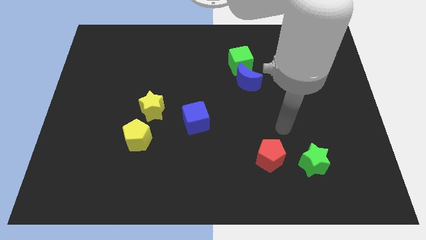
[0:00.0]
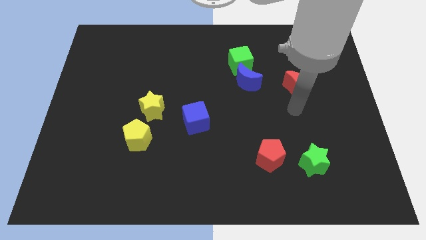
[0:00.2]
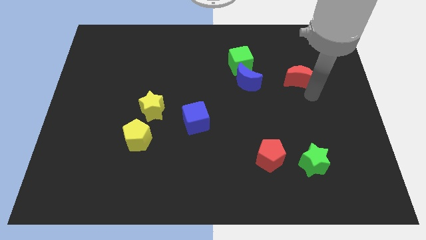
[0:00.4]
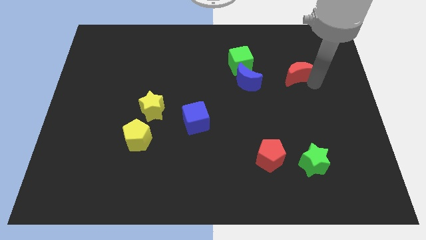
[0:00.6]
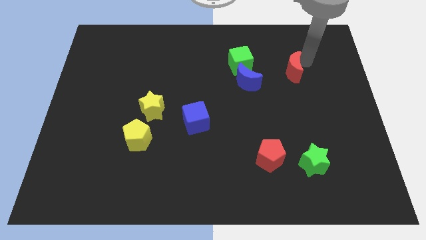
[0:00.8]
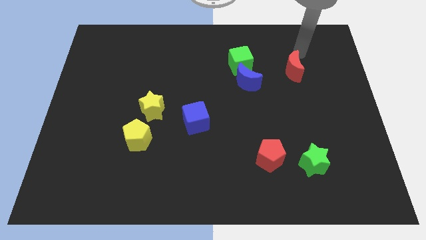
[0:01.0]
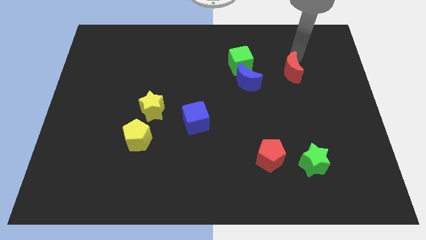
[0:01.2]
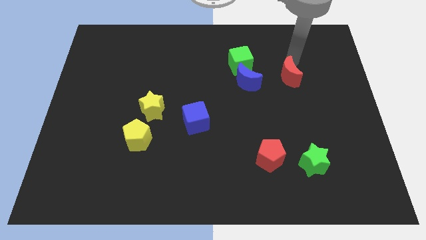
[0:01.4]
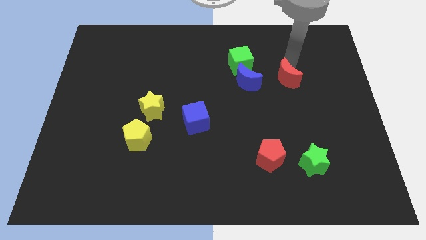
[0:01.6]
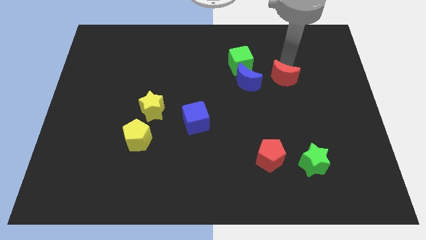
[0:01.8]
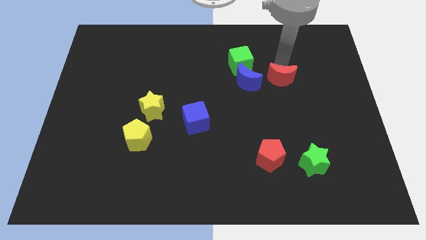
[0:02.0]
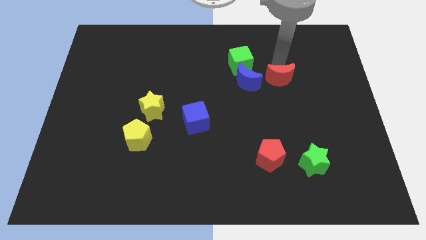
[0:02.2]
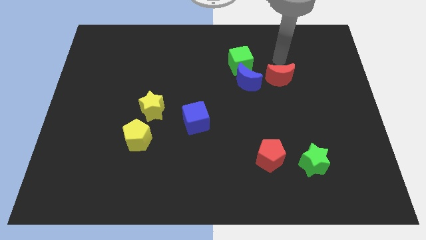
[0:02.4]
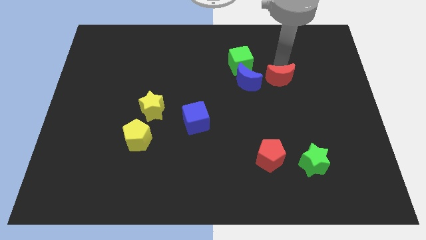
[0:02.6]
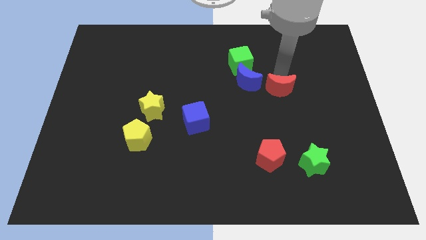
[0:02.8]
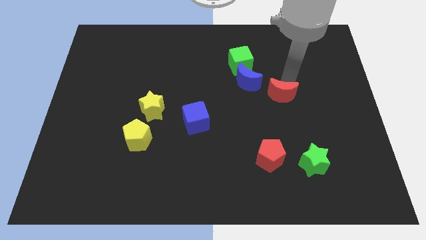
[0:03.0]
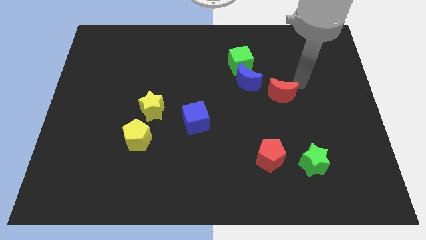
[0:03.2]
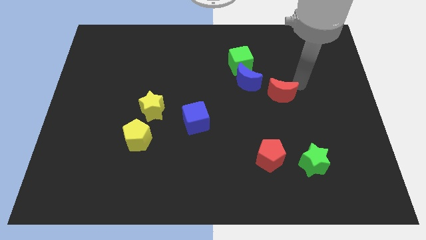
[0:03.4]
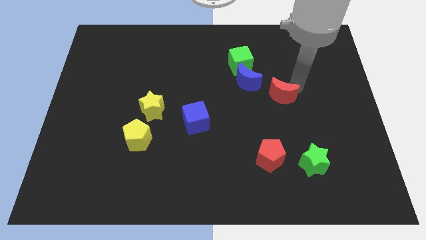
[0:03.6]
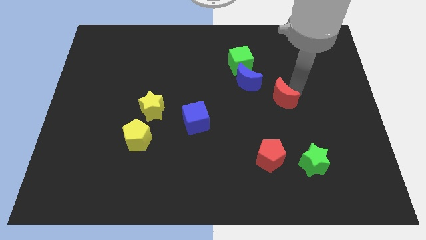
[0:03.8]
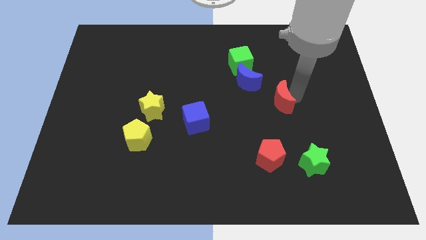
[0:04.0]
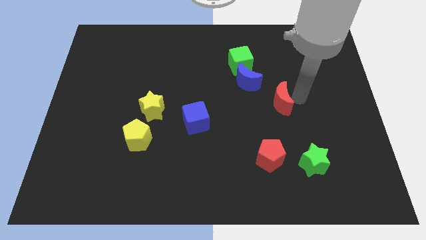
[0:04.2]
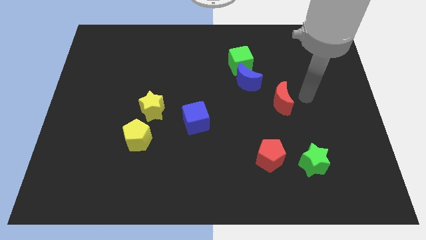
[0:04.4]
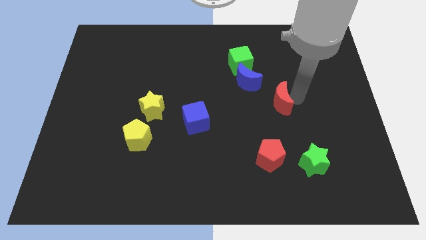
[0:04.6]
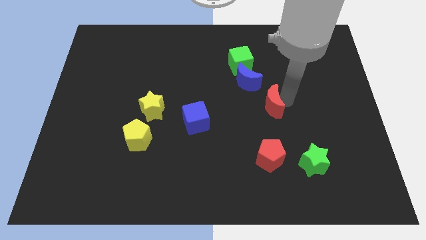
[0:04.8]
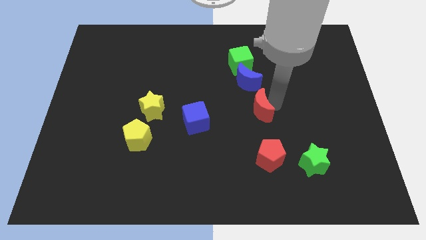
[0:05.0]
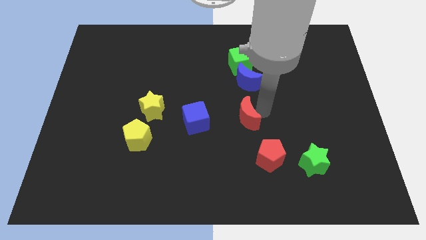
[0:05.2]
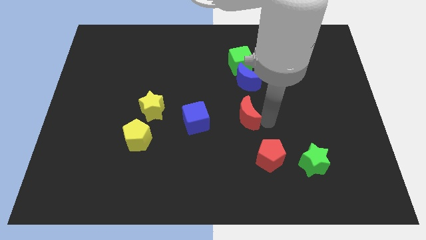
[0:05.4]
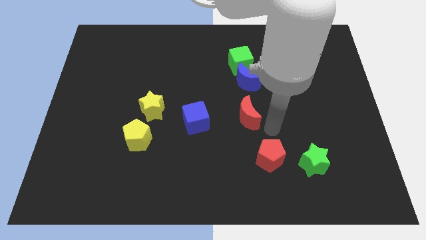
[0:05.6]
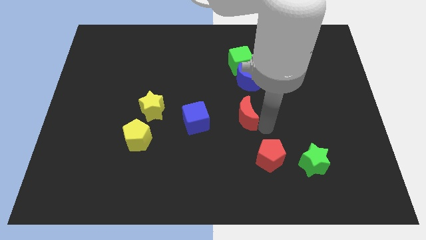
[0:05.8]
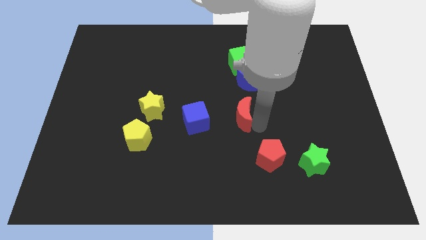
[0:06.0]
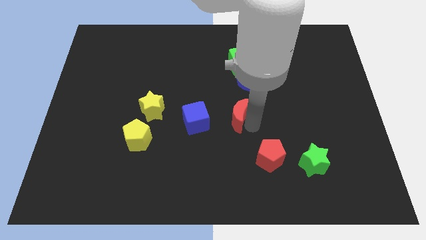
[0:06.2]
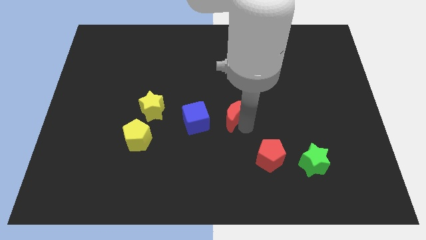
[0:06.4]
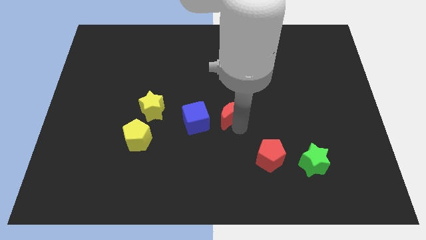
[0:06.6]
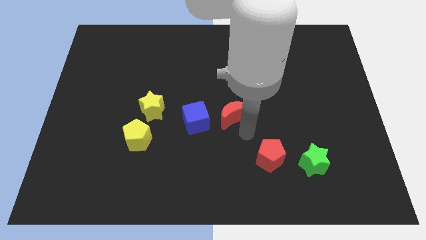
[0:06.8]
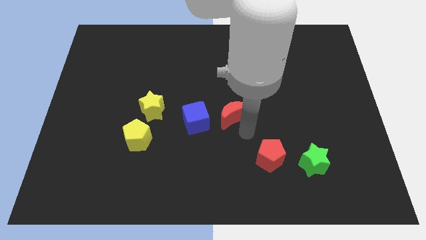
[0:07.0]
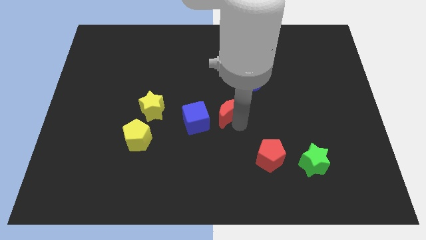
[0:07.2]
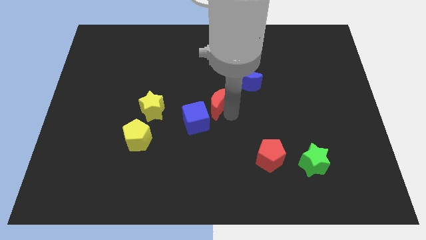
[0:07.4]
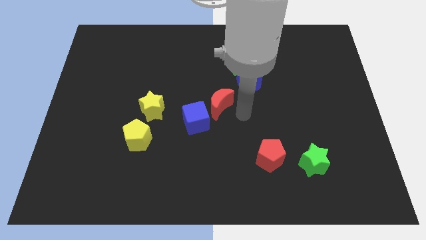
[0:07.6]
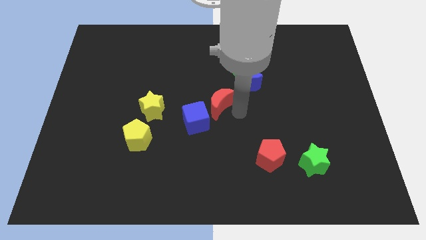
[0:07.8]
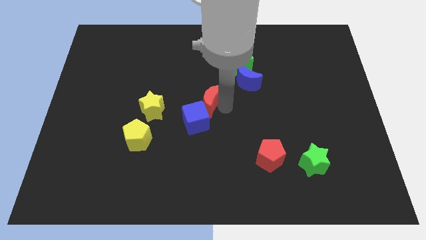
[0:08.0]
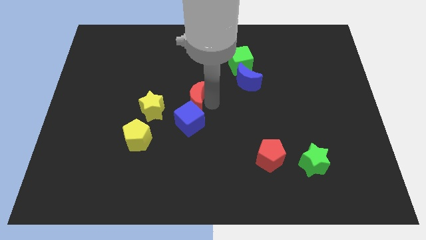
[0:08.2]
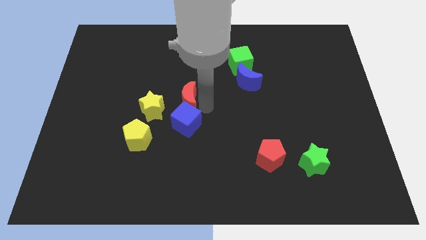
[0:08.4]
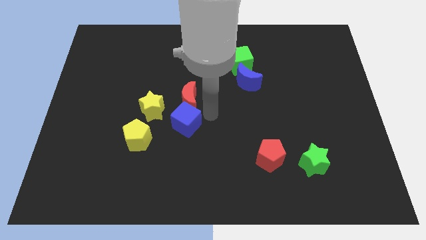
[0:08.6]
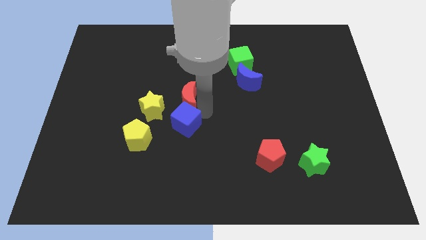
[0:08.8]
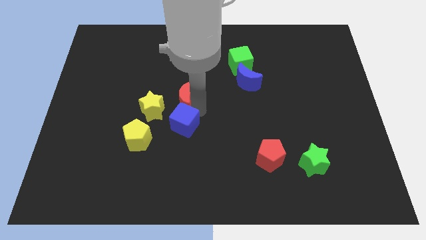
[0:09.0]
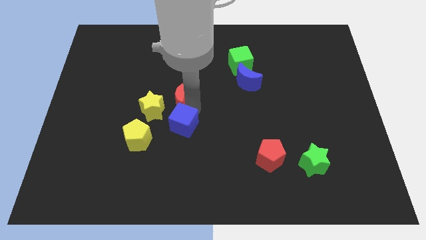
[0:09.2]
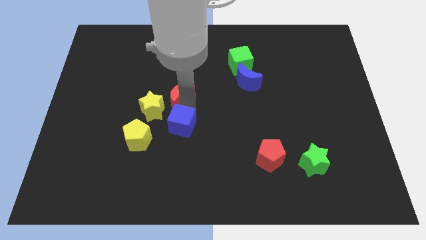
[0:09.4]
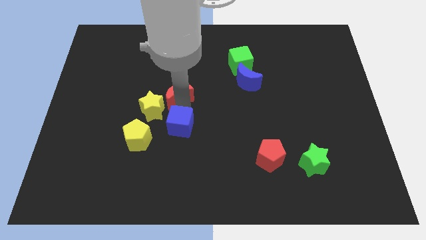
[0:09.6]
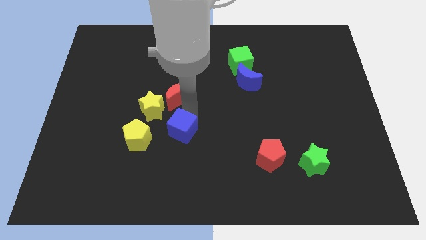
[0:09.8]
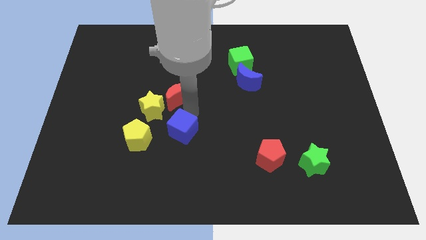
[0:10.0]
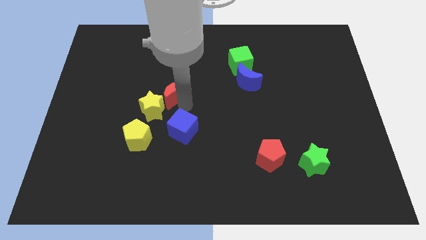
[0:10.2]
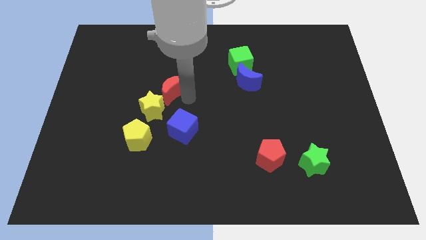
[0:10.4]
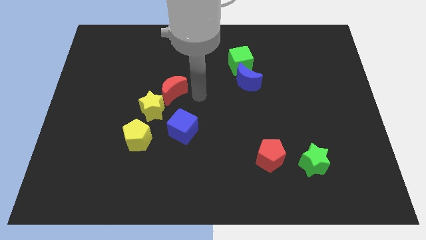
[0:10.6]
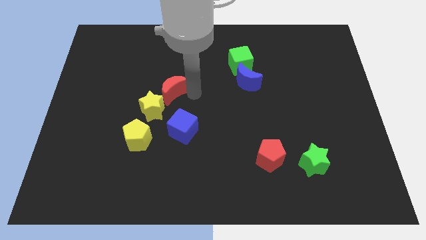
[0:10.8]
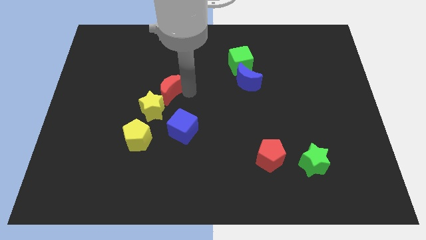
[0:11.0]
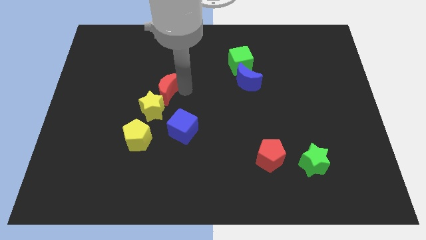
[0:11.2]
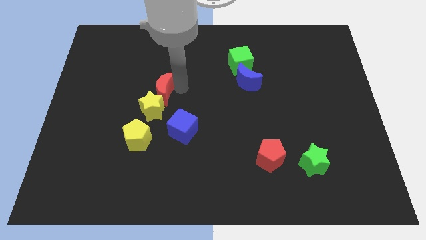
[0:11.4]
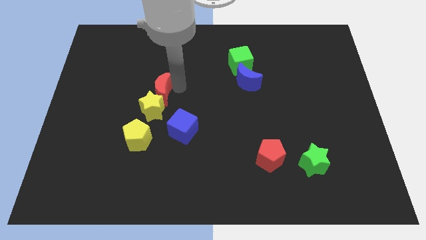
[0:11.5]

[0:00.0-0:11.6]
put the red moon diagonally up and to the left of the yellow star

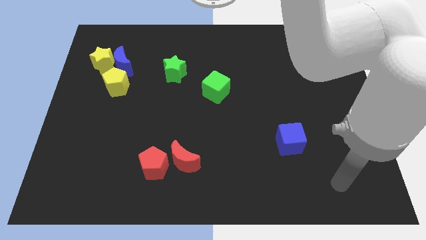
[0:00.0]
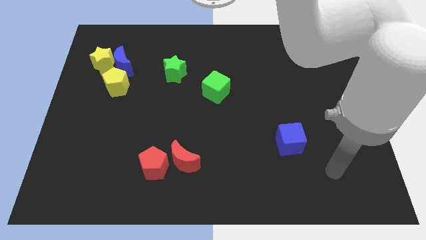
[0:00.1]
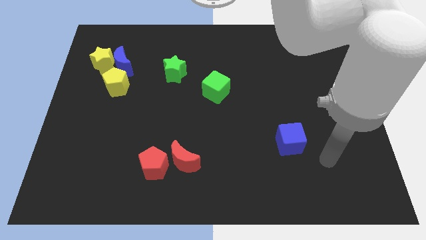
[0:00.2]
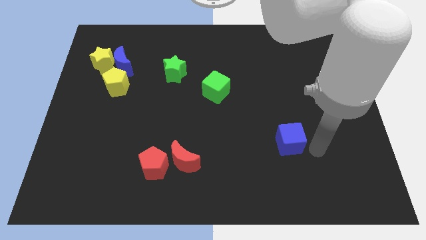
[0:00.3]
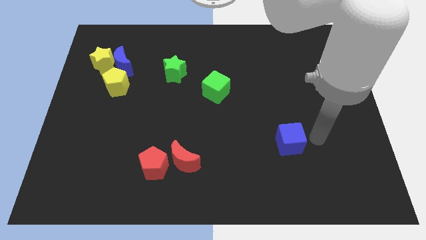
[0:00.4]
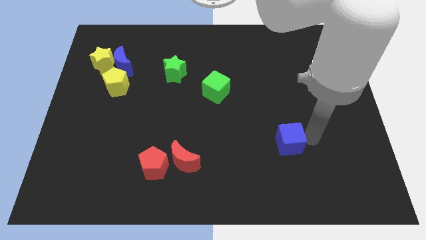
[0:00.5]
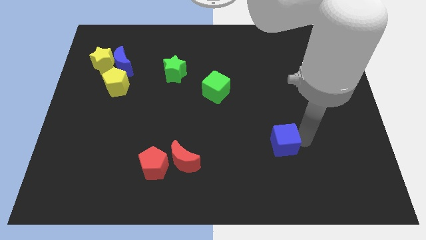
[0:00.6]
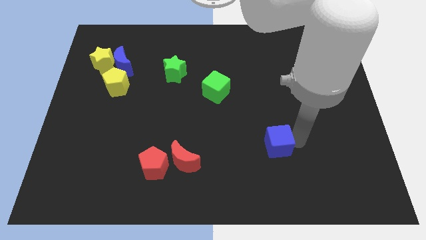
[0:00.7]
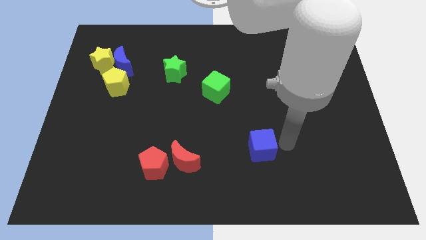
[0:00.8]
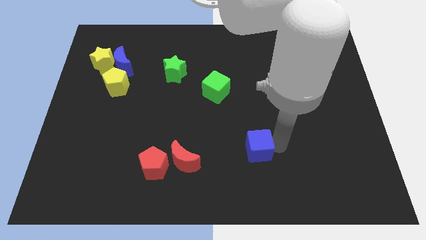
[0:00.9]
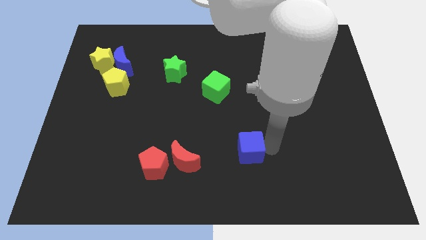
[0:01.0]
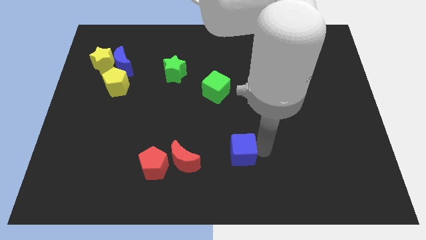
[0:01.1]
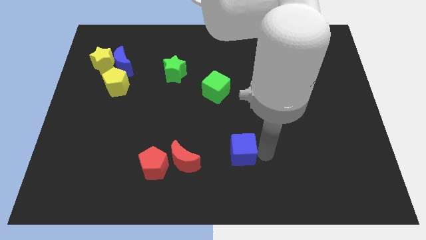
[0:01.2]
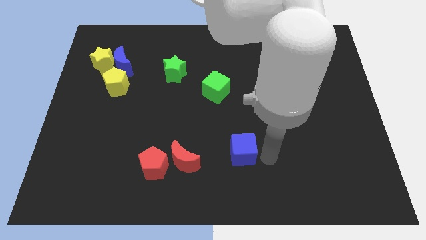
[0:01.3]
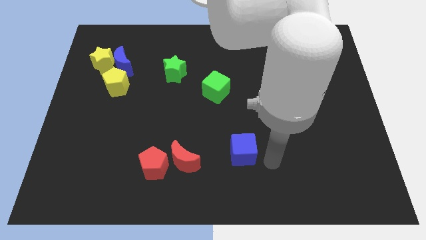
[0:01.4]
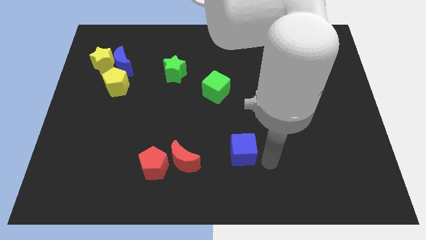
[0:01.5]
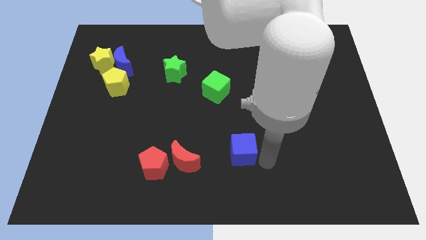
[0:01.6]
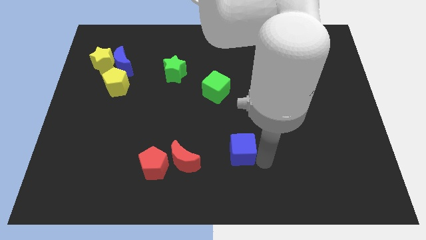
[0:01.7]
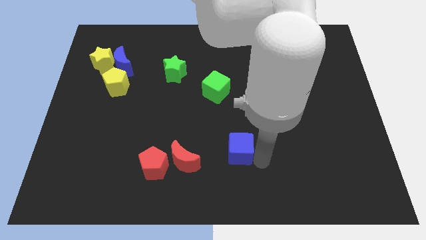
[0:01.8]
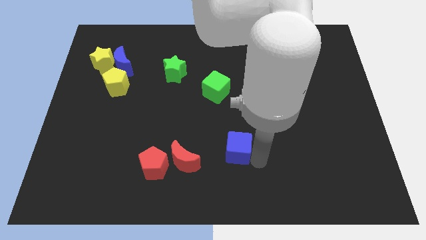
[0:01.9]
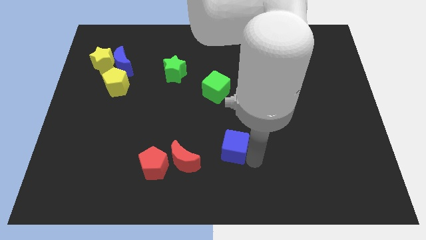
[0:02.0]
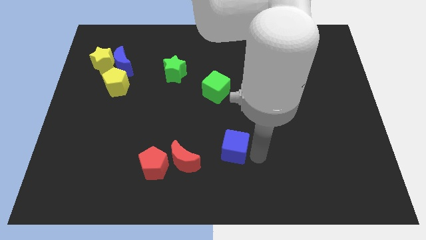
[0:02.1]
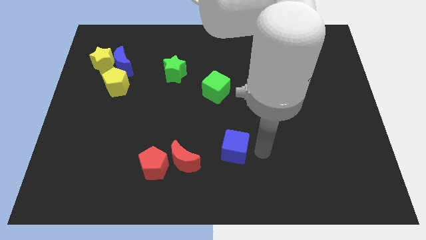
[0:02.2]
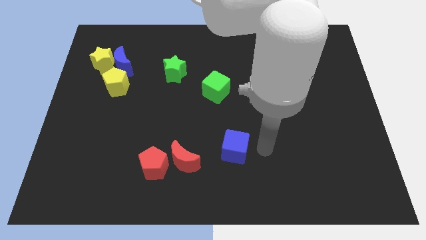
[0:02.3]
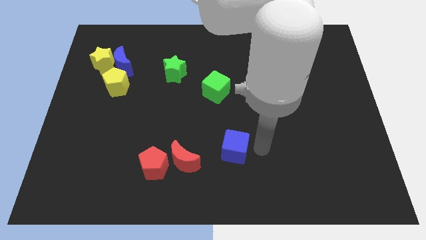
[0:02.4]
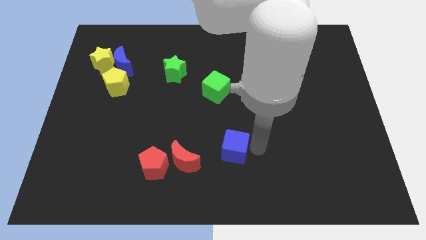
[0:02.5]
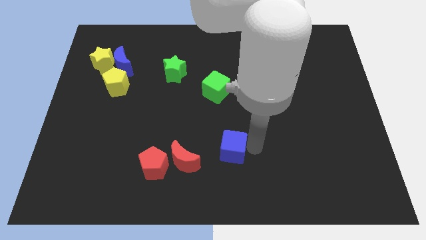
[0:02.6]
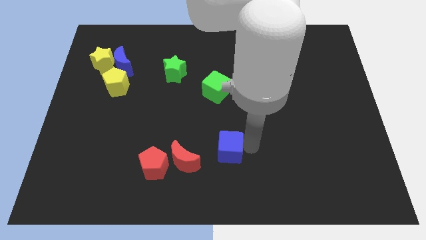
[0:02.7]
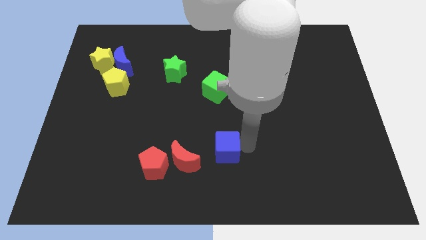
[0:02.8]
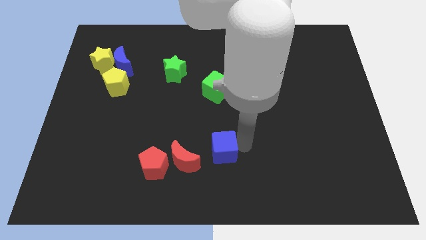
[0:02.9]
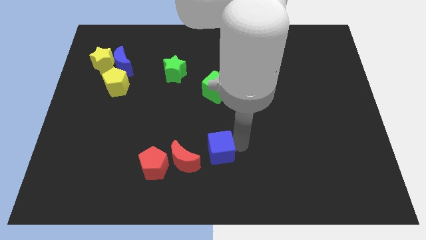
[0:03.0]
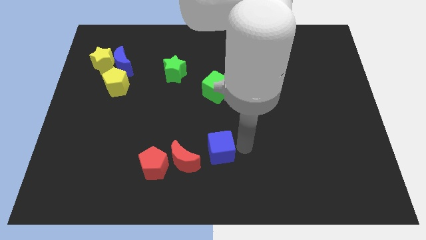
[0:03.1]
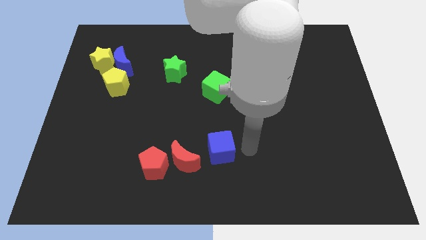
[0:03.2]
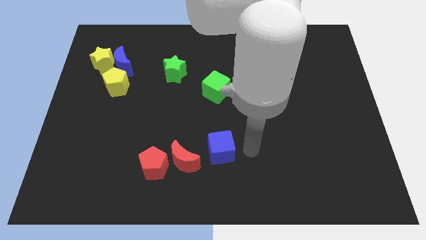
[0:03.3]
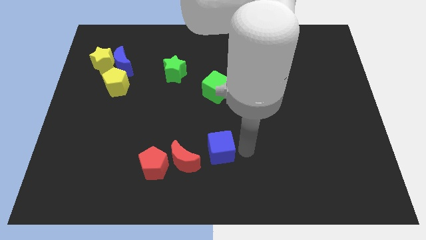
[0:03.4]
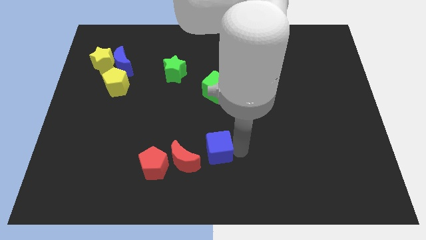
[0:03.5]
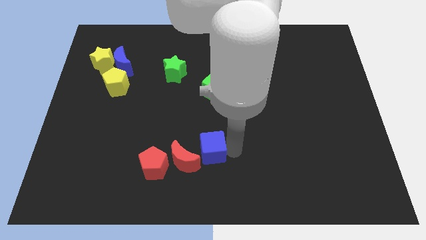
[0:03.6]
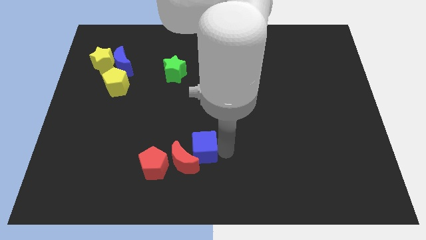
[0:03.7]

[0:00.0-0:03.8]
push the blue cube to the top right of the red pentagon
